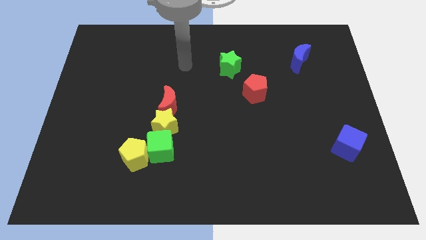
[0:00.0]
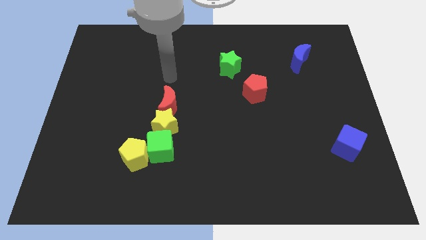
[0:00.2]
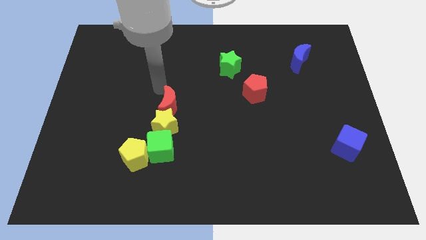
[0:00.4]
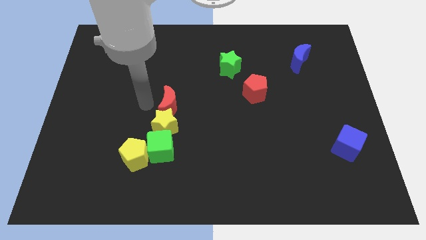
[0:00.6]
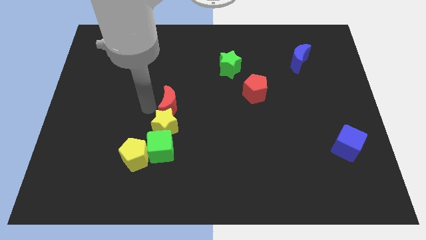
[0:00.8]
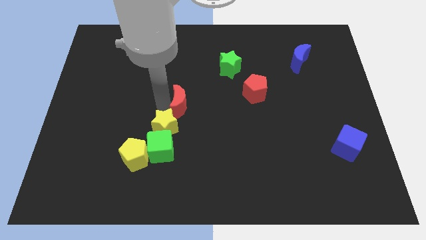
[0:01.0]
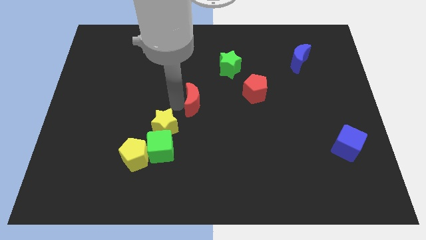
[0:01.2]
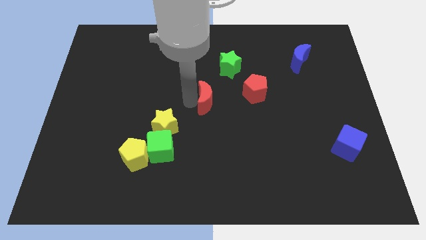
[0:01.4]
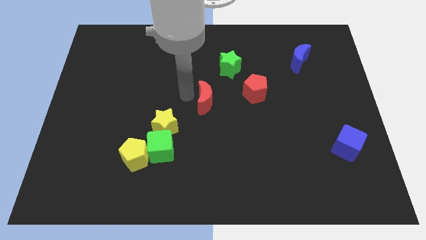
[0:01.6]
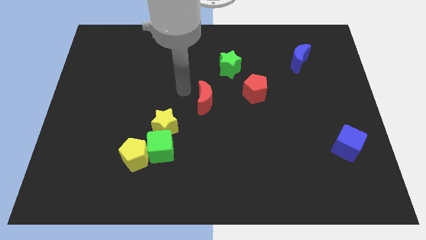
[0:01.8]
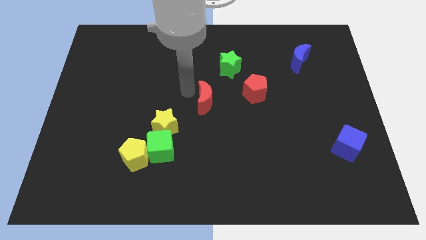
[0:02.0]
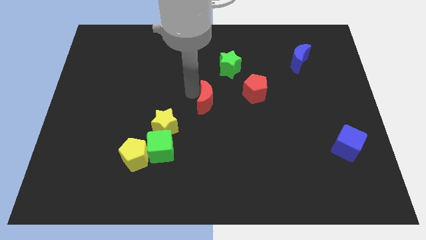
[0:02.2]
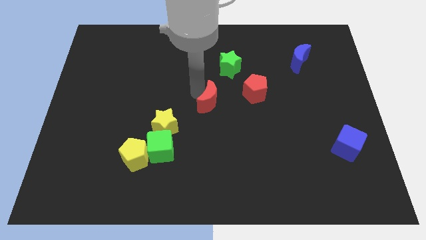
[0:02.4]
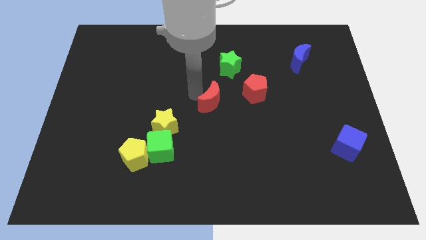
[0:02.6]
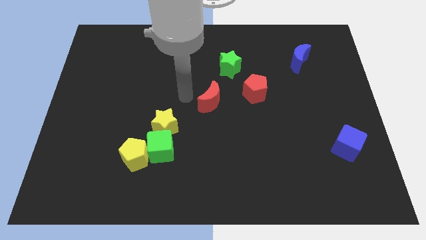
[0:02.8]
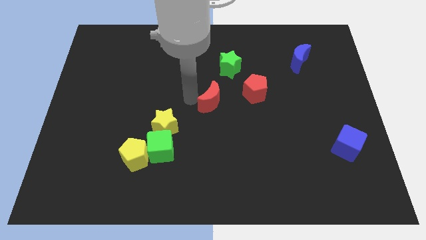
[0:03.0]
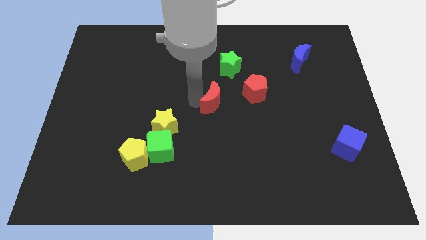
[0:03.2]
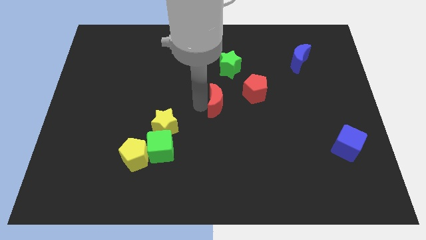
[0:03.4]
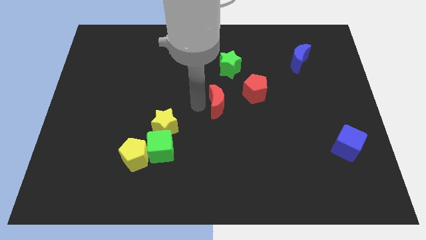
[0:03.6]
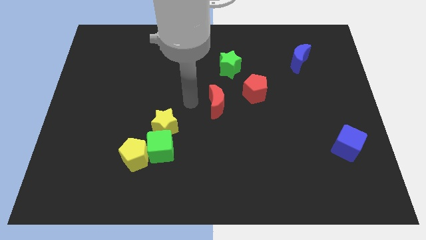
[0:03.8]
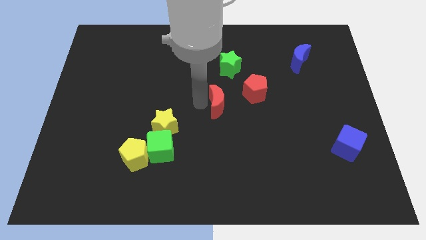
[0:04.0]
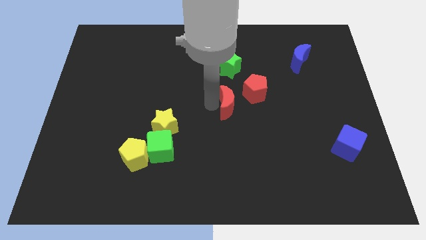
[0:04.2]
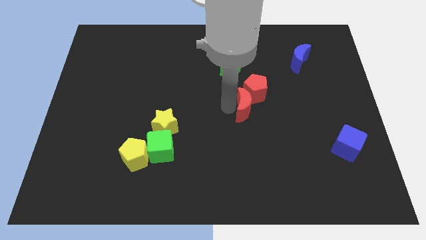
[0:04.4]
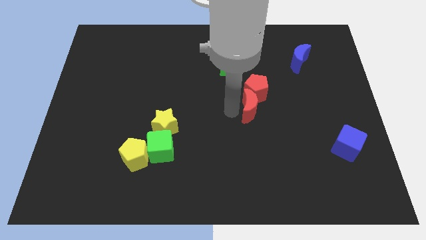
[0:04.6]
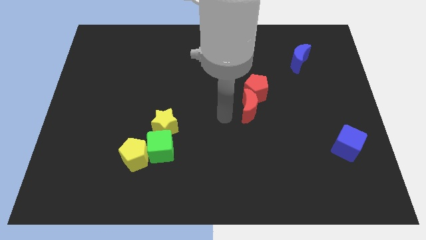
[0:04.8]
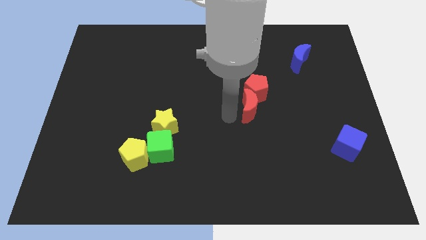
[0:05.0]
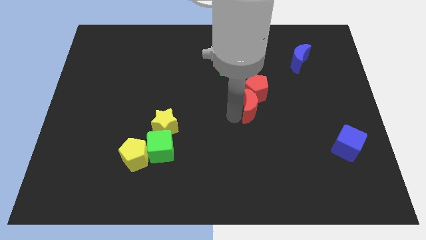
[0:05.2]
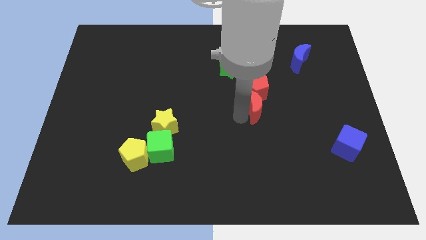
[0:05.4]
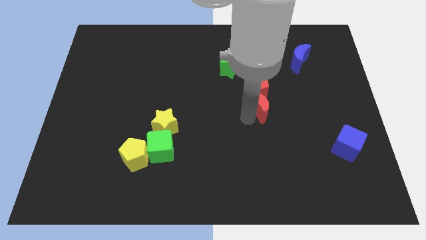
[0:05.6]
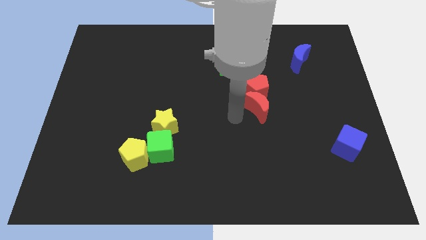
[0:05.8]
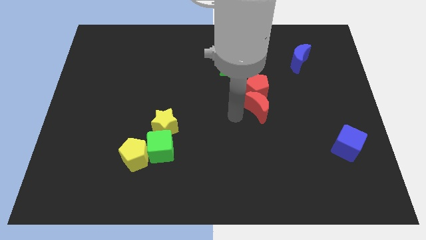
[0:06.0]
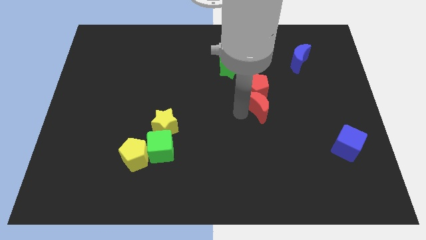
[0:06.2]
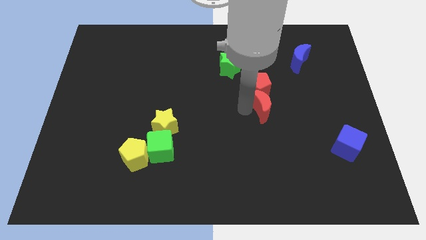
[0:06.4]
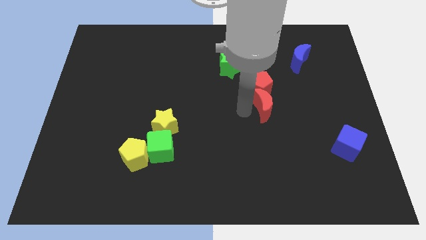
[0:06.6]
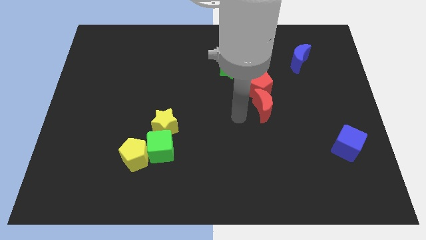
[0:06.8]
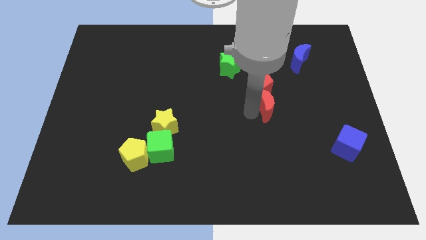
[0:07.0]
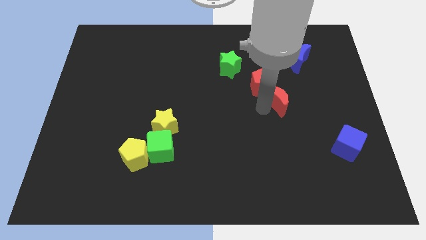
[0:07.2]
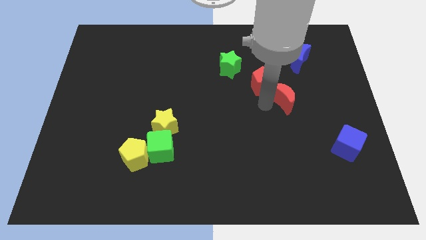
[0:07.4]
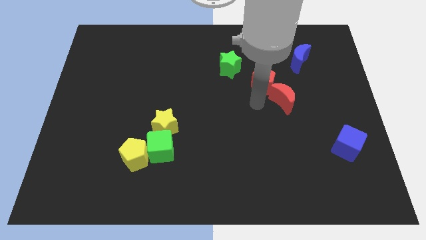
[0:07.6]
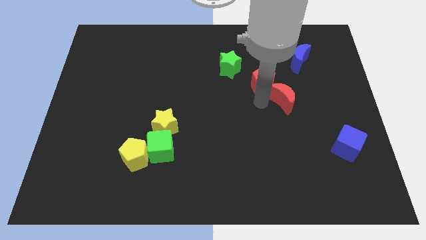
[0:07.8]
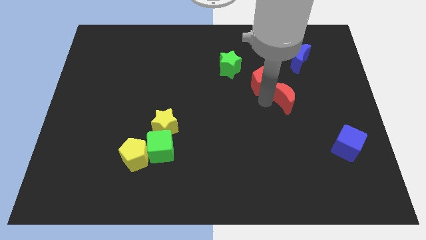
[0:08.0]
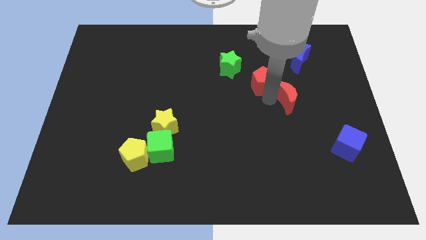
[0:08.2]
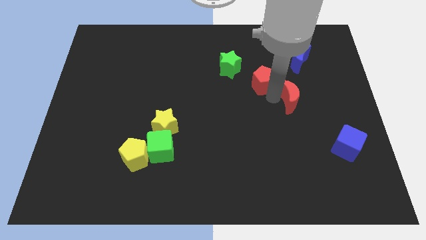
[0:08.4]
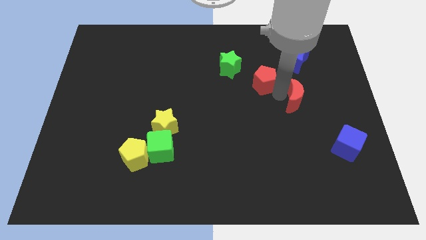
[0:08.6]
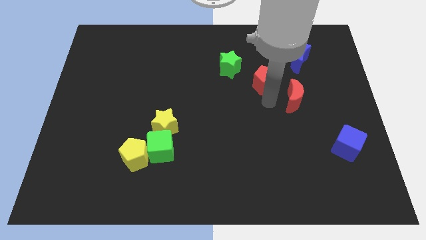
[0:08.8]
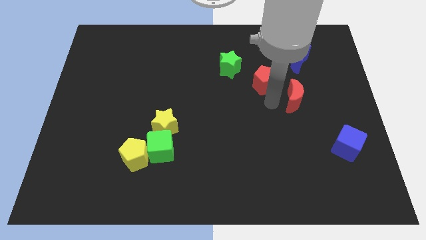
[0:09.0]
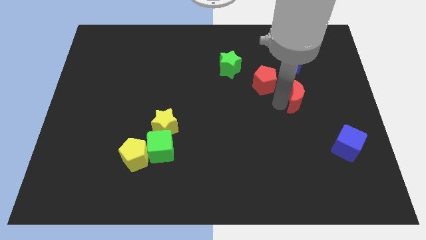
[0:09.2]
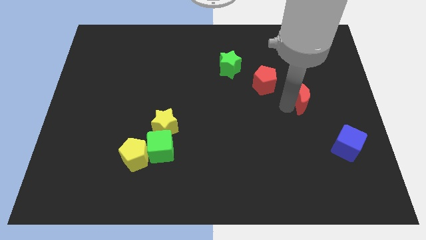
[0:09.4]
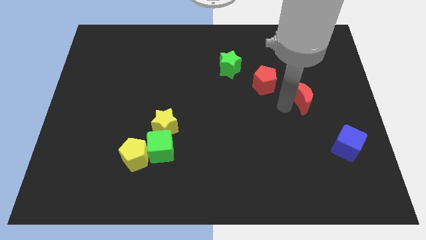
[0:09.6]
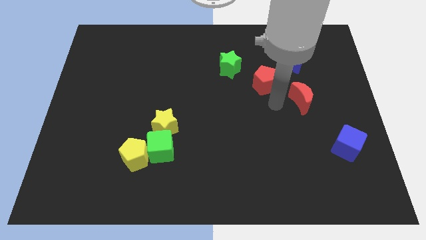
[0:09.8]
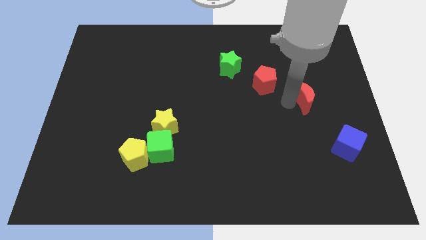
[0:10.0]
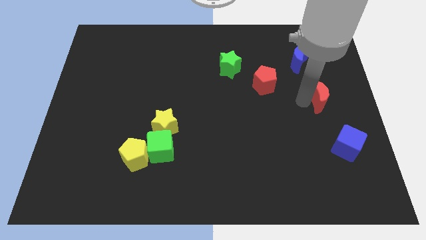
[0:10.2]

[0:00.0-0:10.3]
push the red moon to the right side of the board

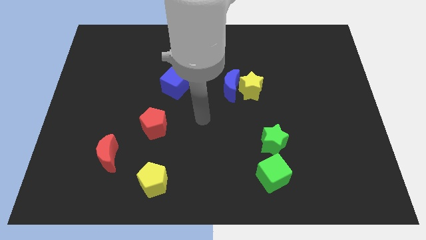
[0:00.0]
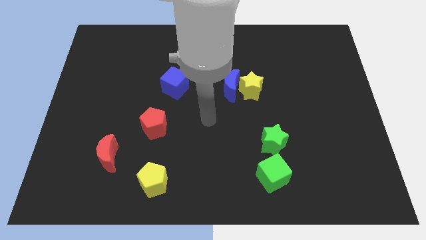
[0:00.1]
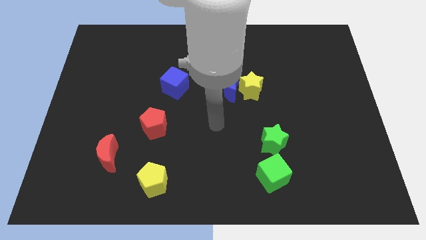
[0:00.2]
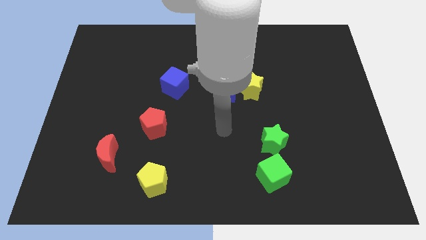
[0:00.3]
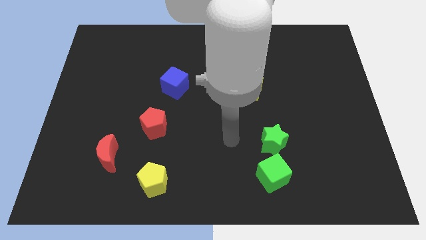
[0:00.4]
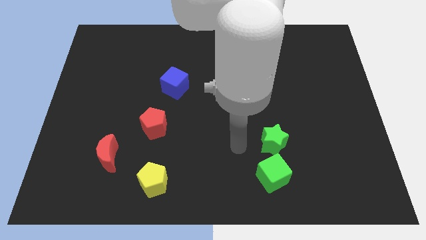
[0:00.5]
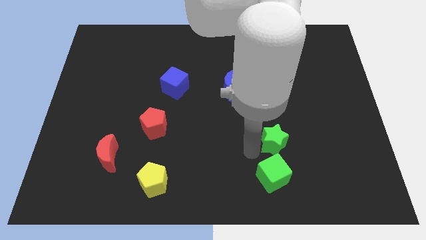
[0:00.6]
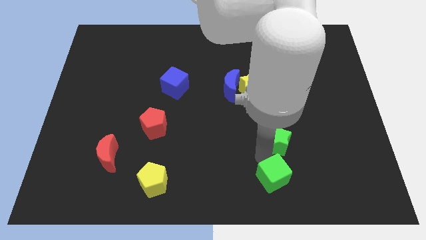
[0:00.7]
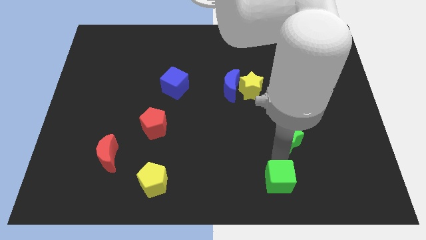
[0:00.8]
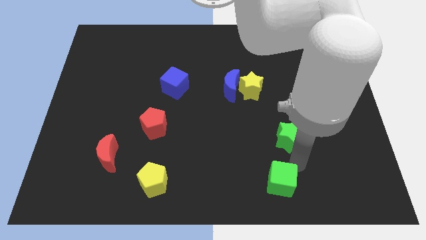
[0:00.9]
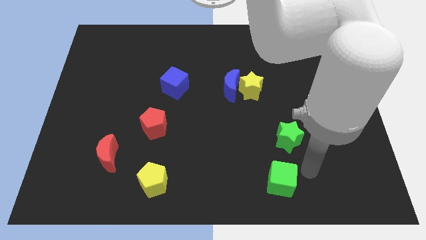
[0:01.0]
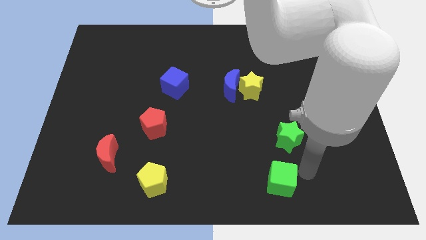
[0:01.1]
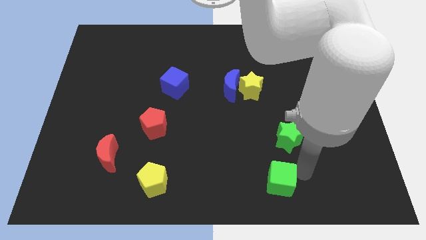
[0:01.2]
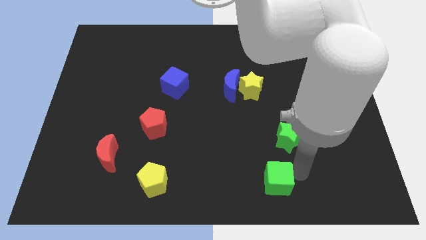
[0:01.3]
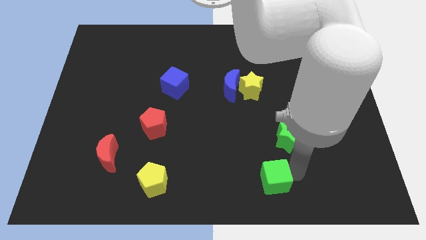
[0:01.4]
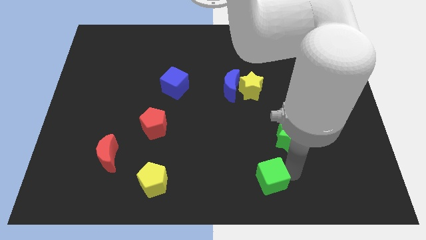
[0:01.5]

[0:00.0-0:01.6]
move the green cube to the bottom
